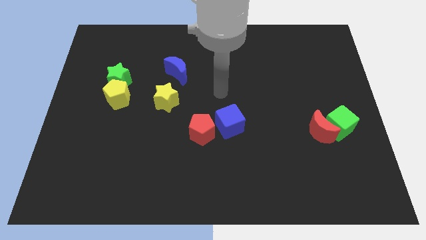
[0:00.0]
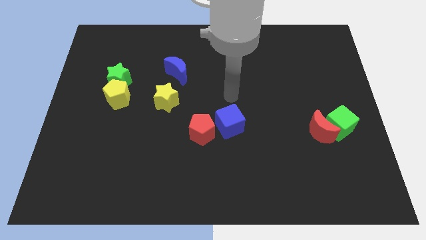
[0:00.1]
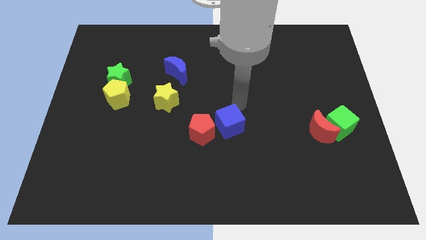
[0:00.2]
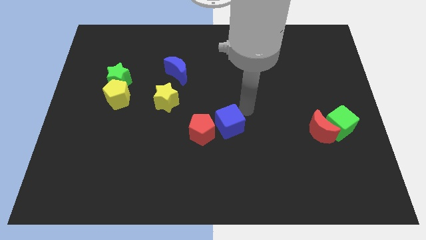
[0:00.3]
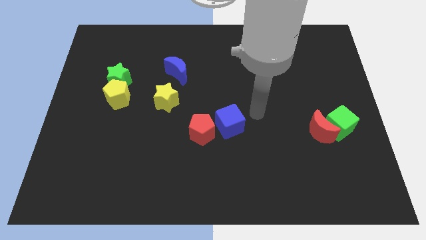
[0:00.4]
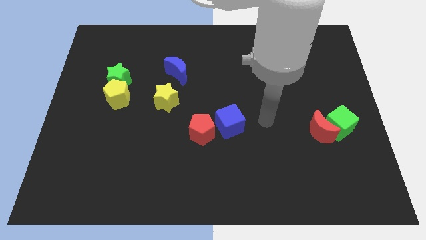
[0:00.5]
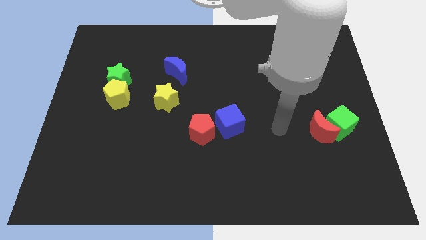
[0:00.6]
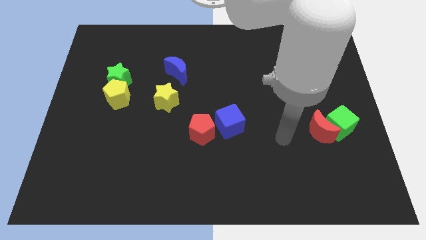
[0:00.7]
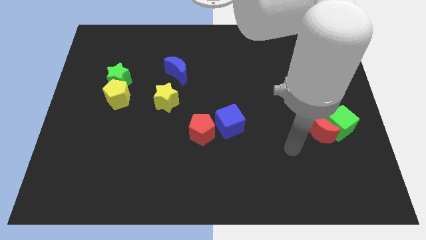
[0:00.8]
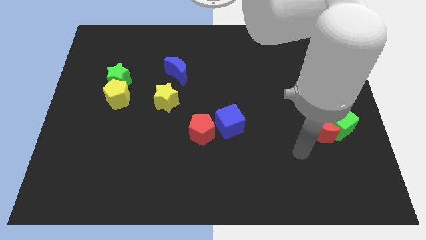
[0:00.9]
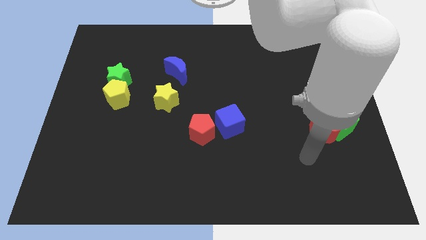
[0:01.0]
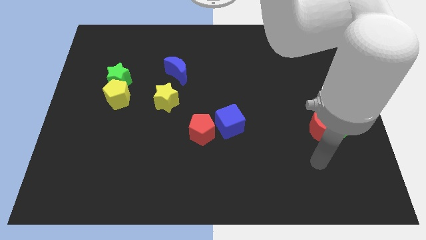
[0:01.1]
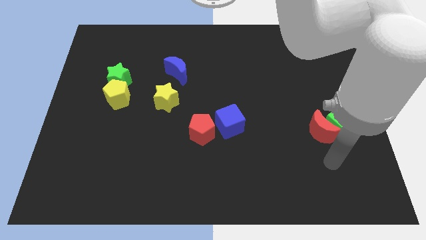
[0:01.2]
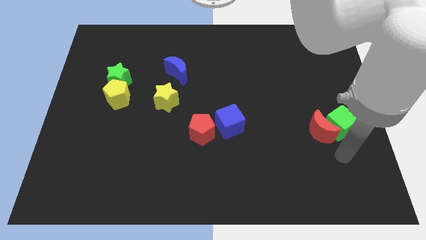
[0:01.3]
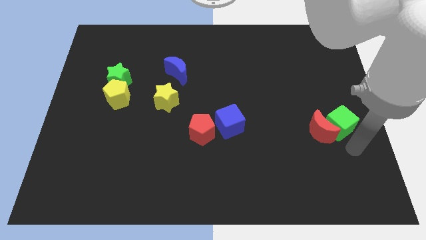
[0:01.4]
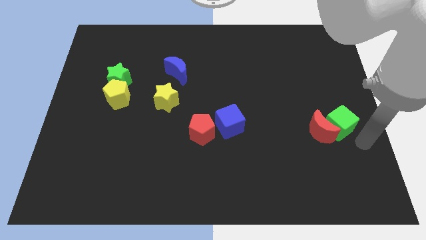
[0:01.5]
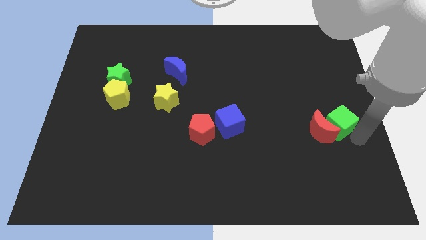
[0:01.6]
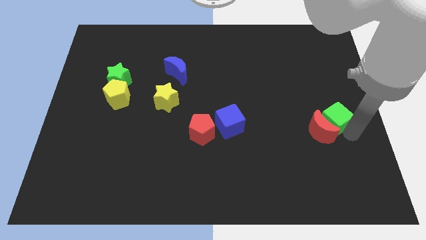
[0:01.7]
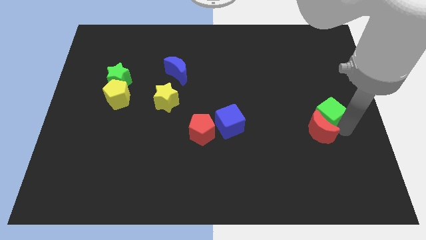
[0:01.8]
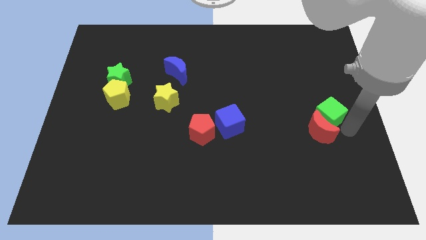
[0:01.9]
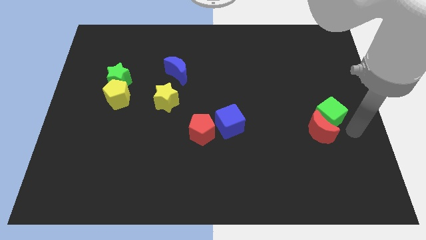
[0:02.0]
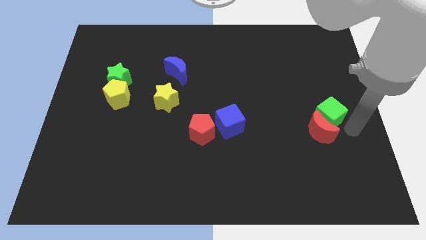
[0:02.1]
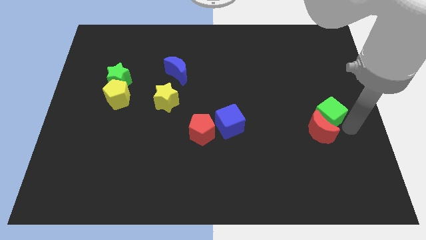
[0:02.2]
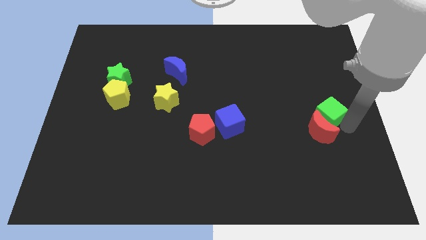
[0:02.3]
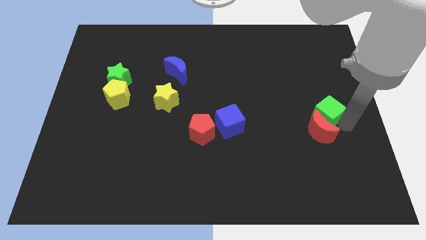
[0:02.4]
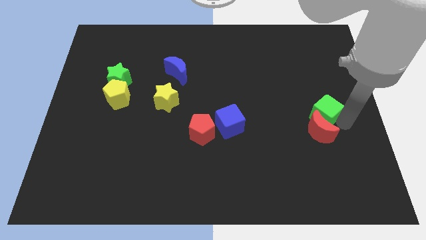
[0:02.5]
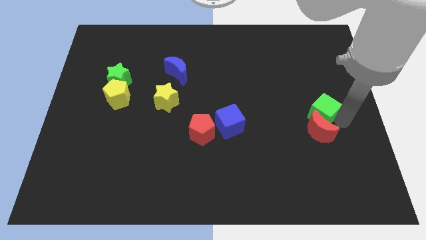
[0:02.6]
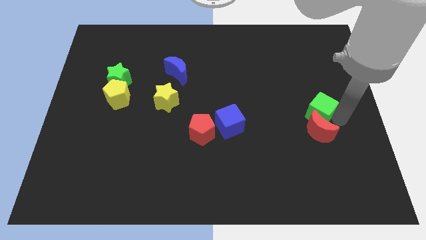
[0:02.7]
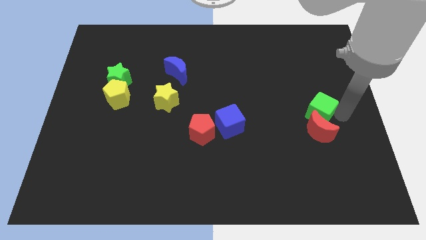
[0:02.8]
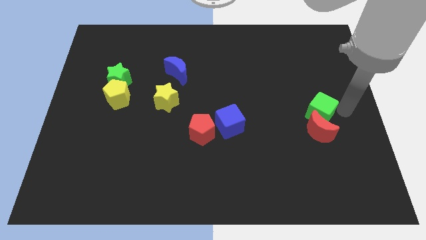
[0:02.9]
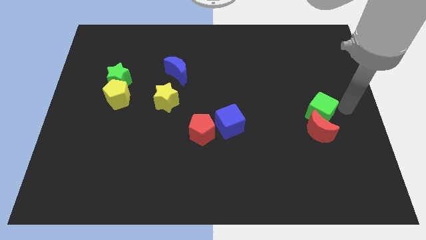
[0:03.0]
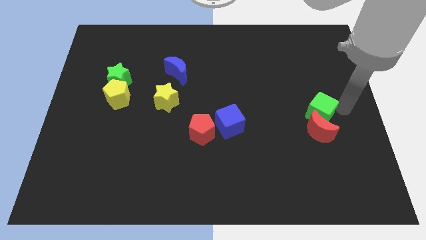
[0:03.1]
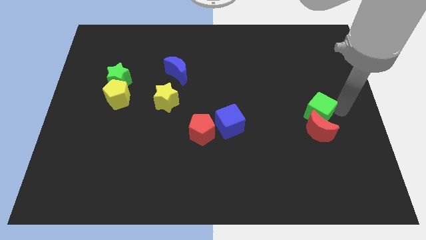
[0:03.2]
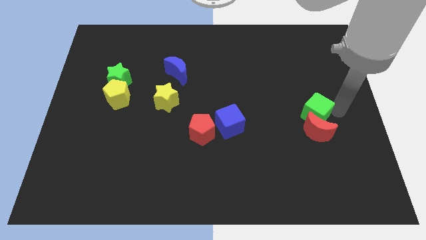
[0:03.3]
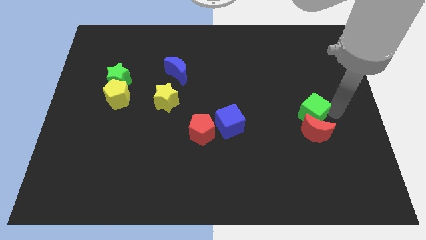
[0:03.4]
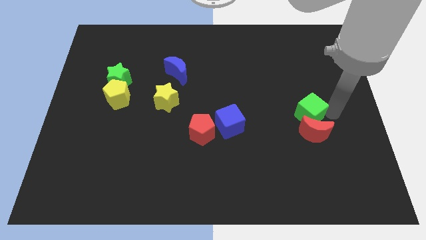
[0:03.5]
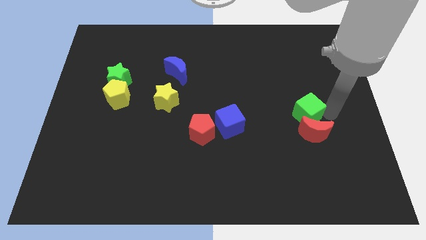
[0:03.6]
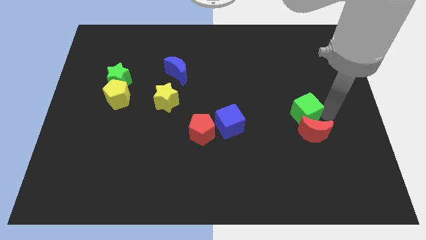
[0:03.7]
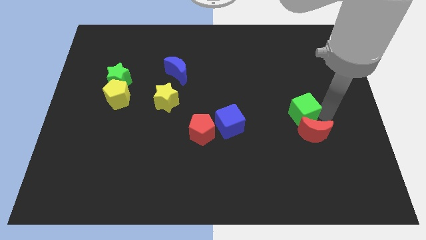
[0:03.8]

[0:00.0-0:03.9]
move the green cube a little left

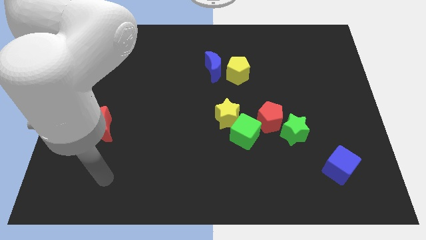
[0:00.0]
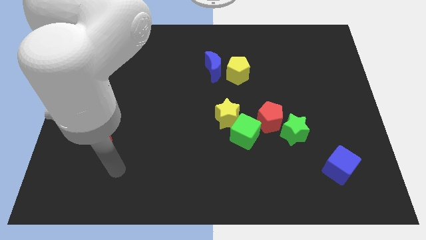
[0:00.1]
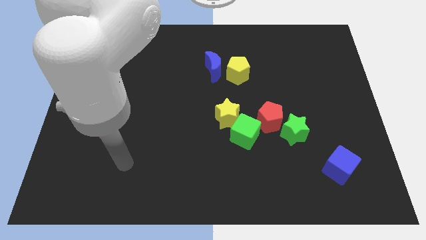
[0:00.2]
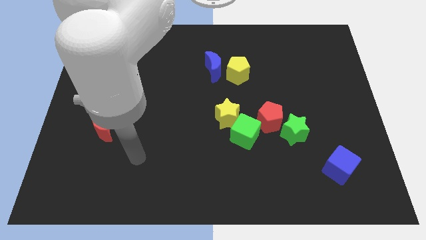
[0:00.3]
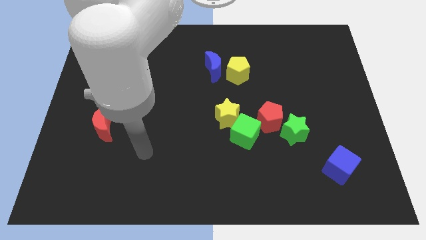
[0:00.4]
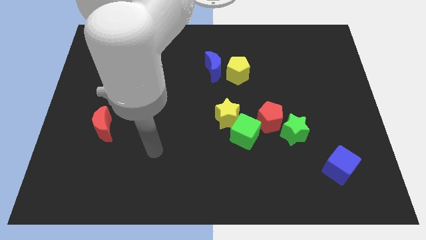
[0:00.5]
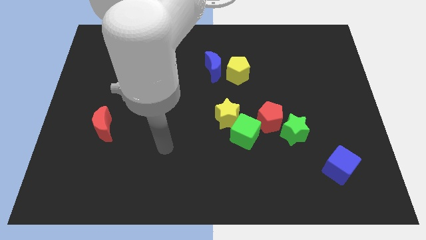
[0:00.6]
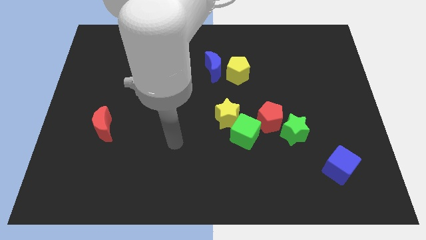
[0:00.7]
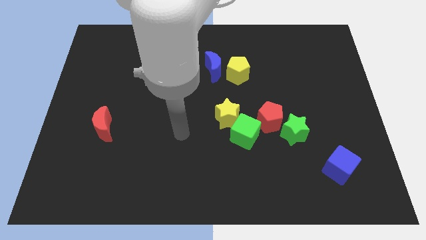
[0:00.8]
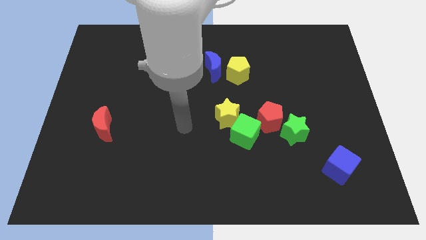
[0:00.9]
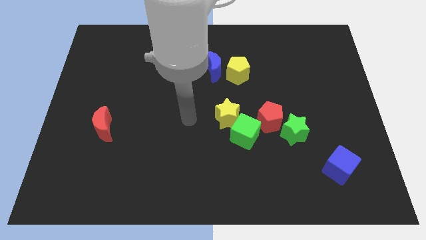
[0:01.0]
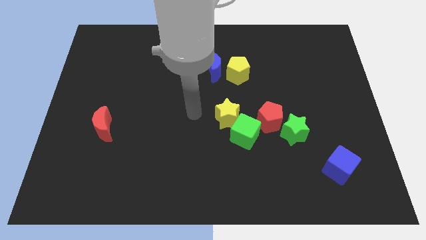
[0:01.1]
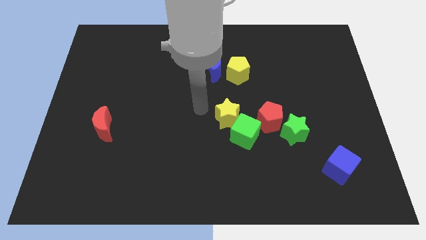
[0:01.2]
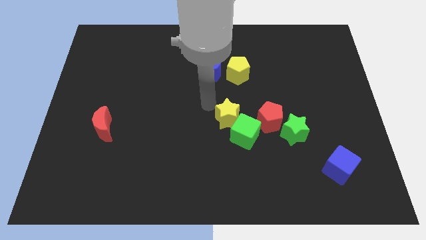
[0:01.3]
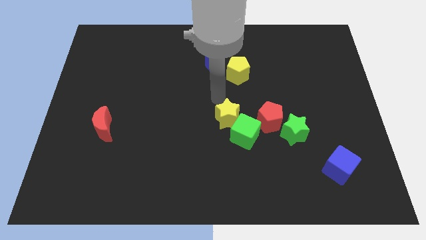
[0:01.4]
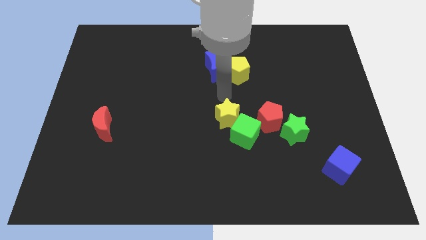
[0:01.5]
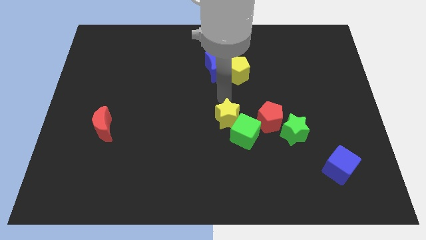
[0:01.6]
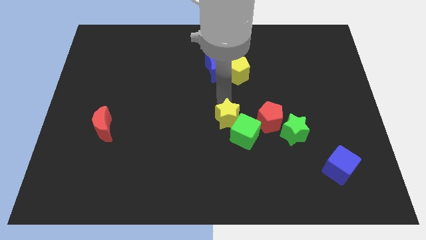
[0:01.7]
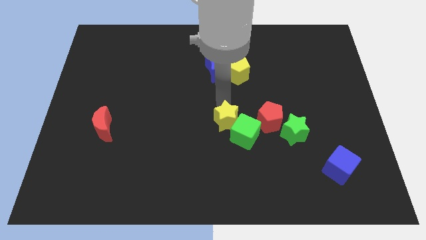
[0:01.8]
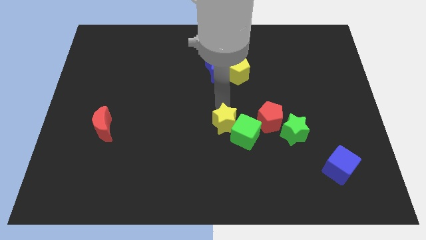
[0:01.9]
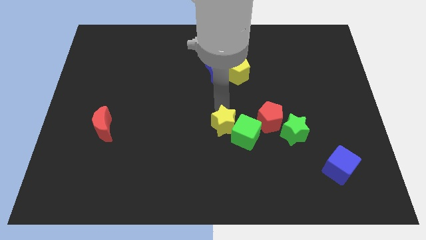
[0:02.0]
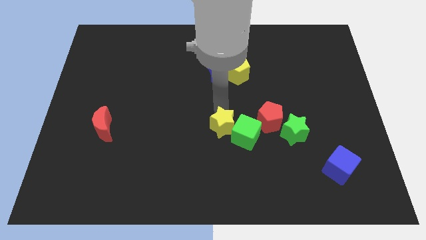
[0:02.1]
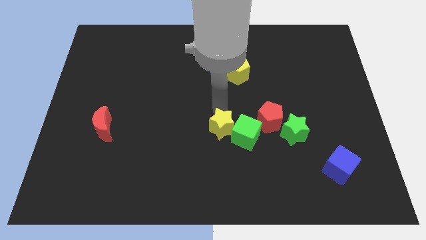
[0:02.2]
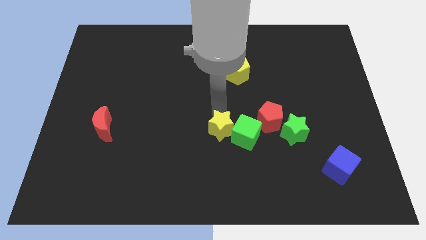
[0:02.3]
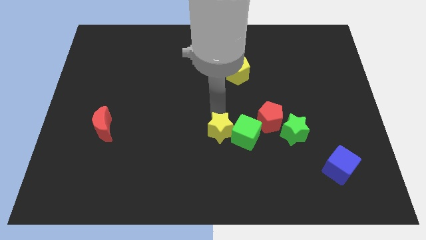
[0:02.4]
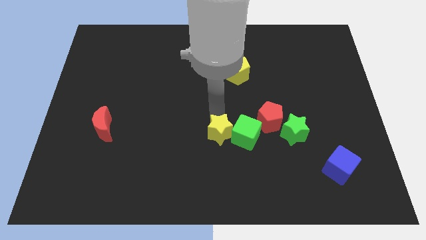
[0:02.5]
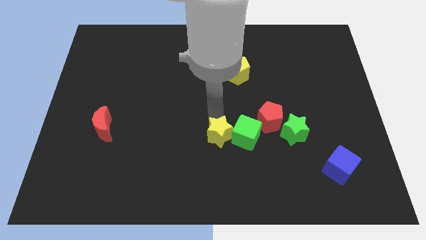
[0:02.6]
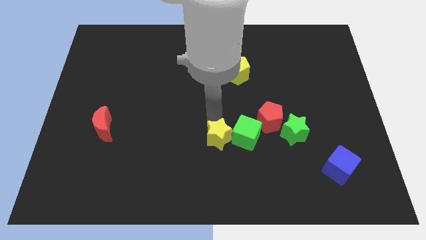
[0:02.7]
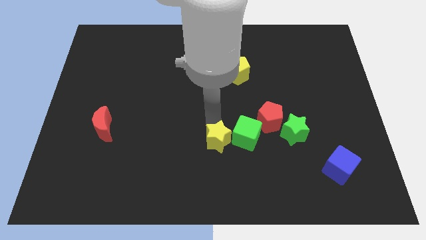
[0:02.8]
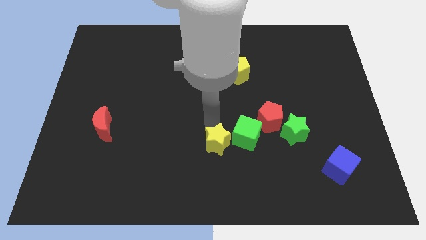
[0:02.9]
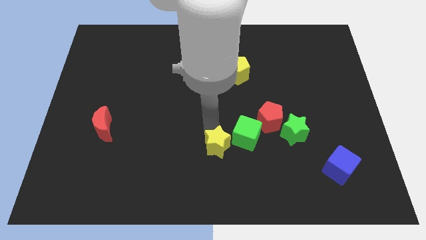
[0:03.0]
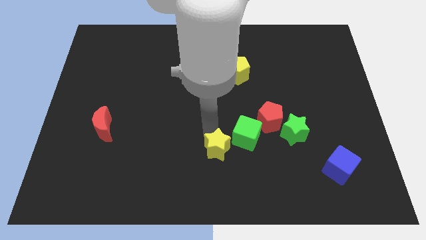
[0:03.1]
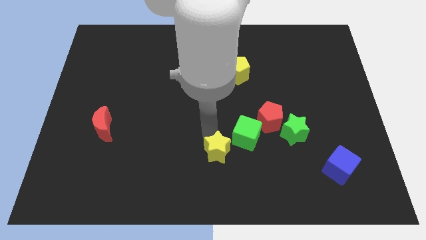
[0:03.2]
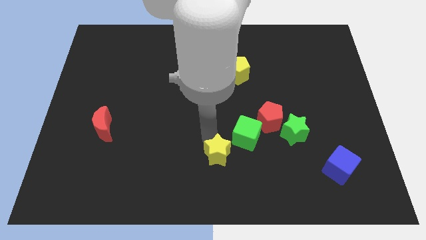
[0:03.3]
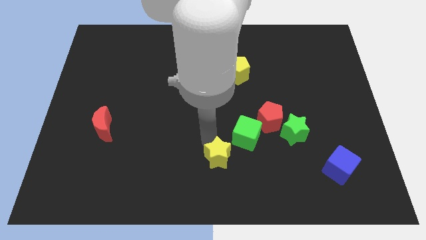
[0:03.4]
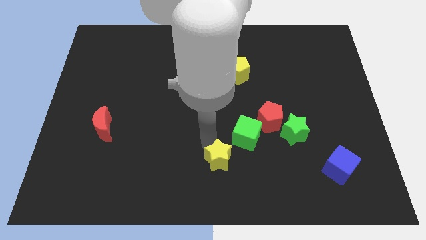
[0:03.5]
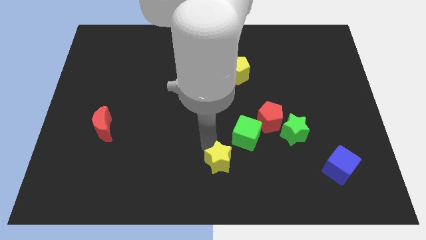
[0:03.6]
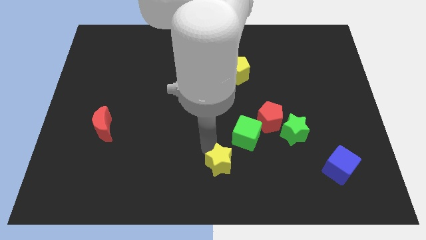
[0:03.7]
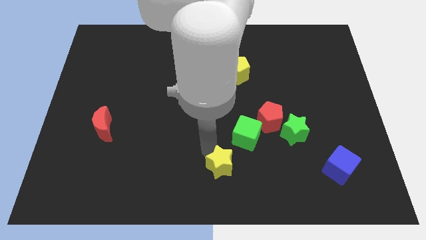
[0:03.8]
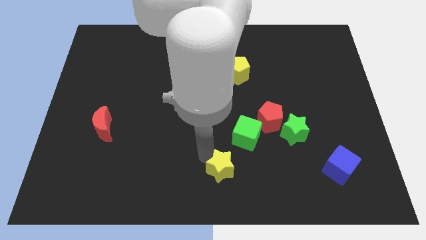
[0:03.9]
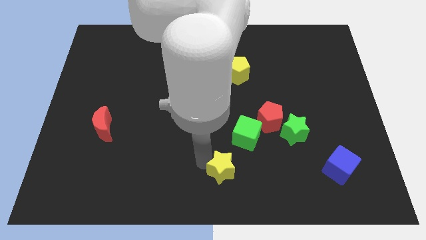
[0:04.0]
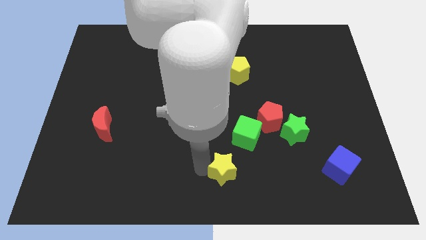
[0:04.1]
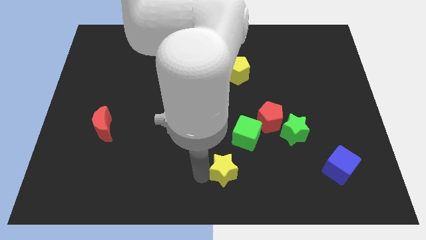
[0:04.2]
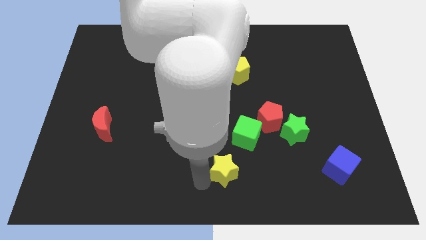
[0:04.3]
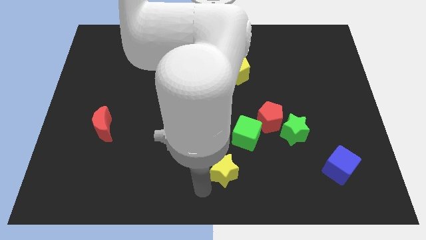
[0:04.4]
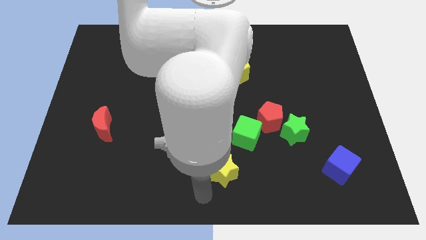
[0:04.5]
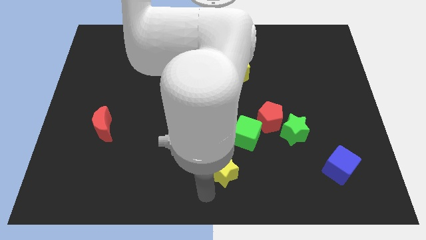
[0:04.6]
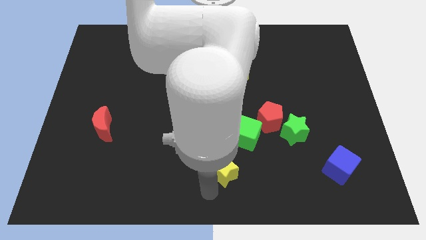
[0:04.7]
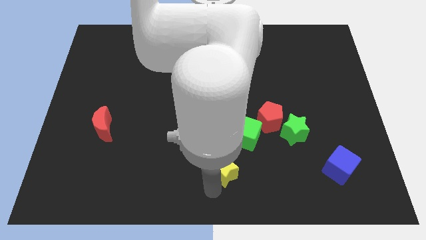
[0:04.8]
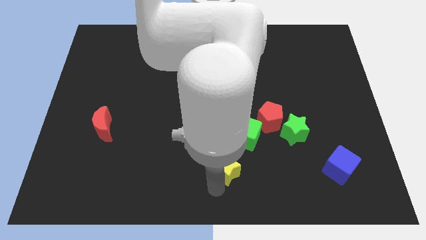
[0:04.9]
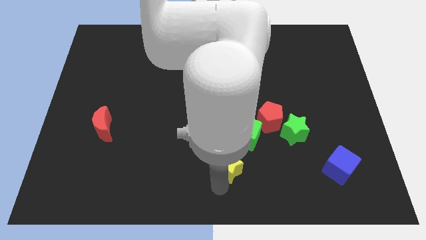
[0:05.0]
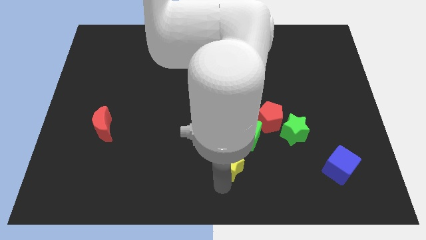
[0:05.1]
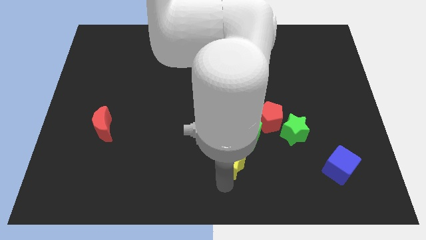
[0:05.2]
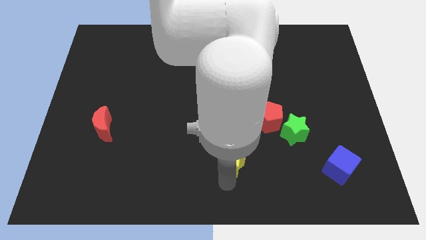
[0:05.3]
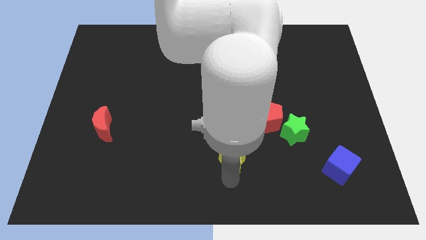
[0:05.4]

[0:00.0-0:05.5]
push the yellow star downwards and right somewhat
